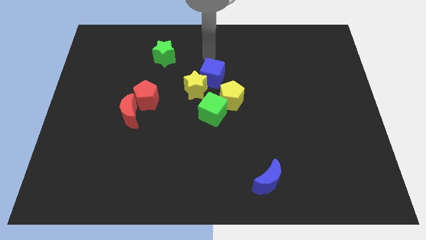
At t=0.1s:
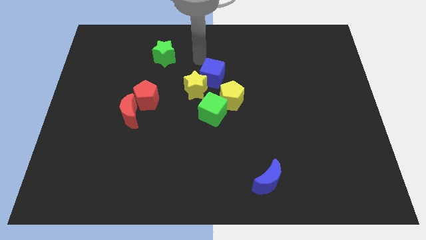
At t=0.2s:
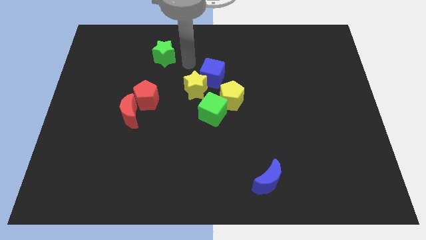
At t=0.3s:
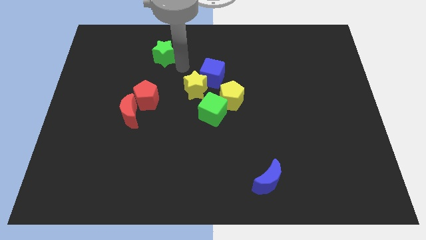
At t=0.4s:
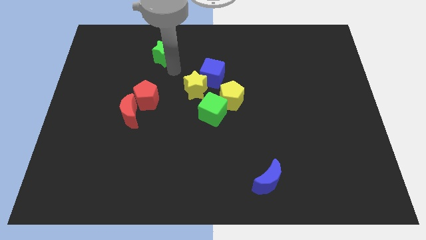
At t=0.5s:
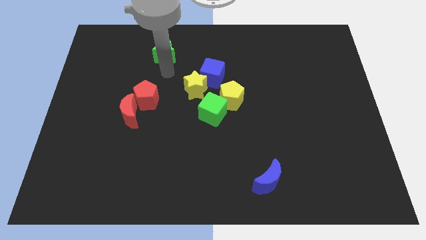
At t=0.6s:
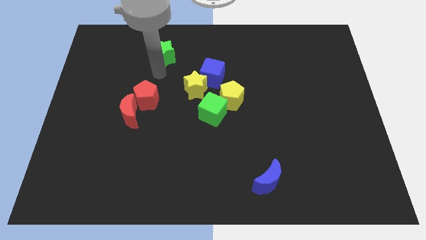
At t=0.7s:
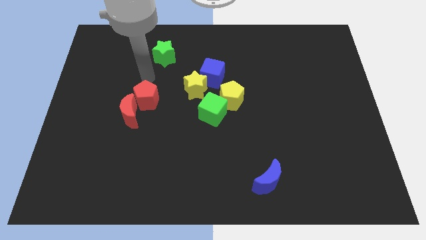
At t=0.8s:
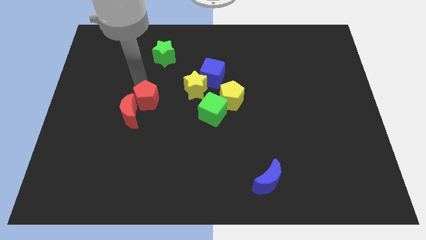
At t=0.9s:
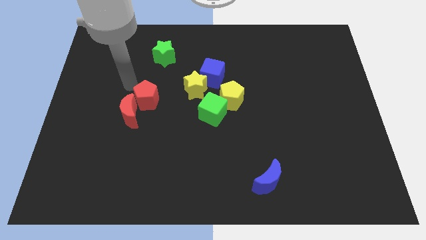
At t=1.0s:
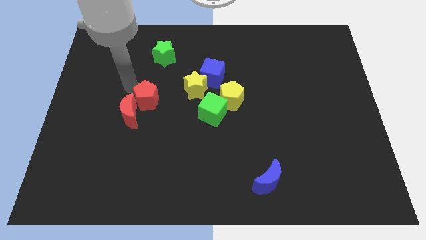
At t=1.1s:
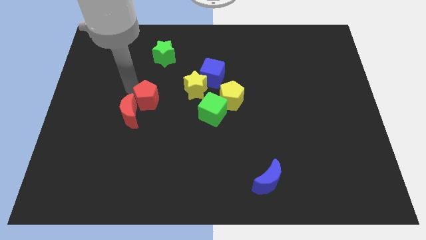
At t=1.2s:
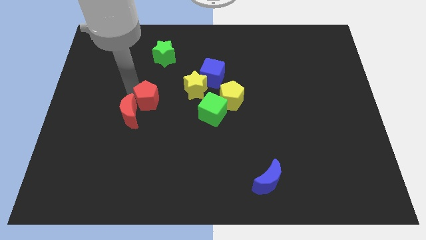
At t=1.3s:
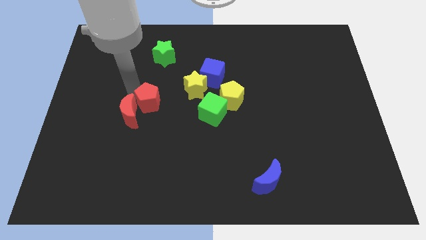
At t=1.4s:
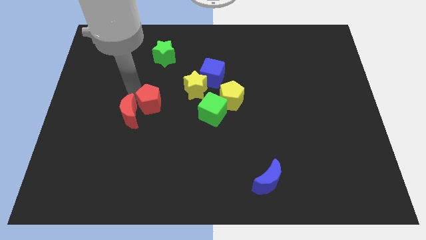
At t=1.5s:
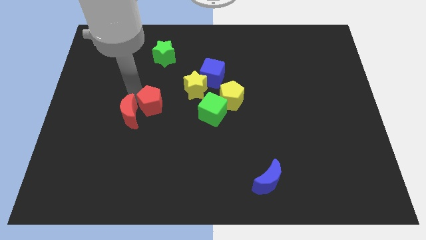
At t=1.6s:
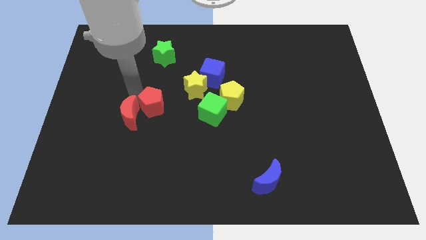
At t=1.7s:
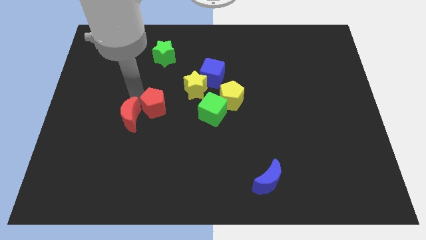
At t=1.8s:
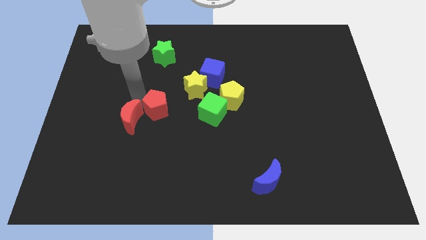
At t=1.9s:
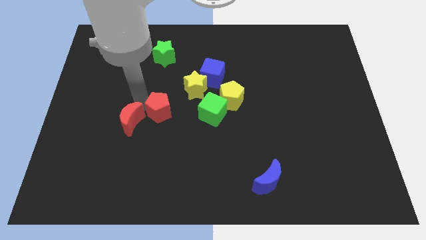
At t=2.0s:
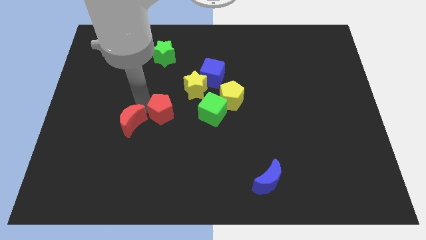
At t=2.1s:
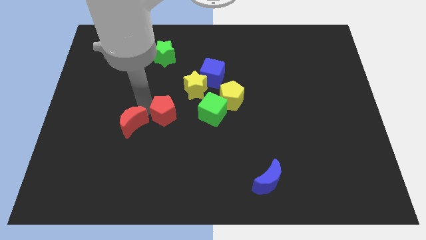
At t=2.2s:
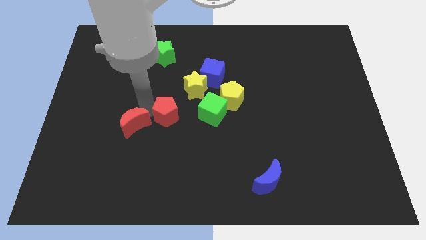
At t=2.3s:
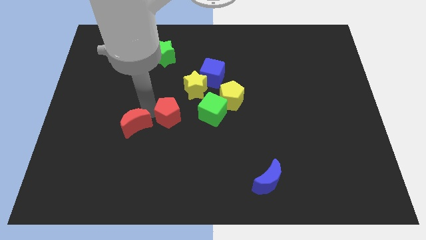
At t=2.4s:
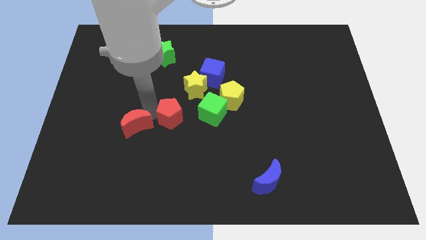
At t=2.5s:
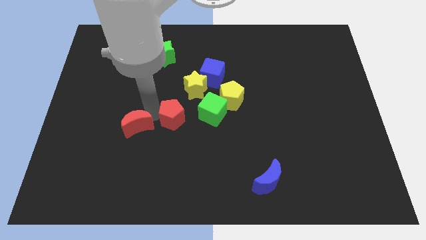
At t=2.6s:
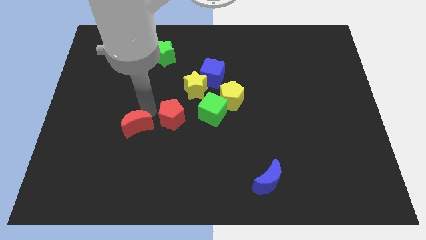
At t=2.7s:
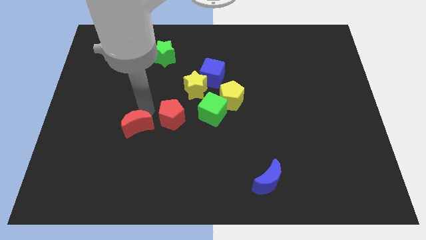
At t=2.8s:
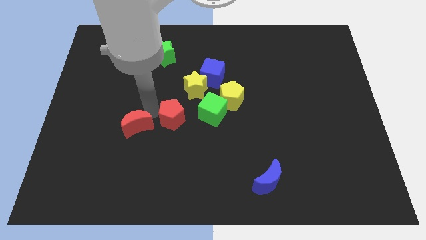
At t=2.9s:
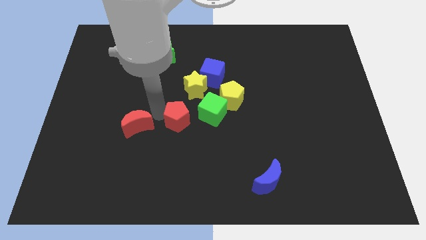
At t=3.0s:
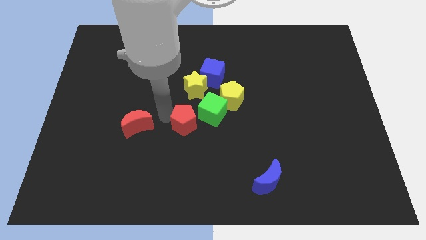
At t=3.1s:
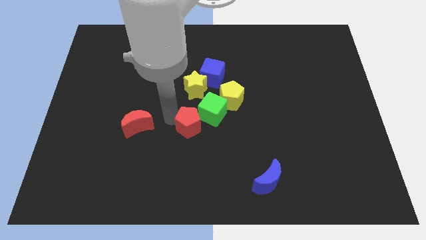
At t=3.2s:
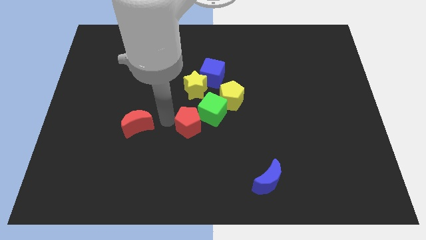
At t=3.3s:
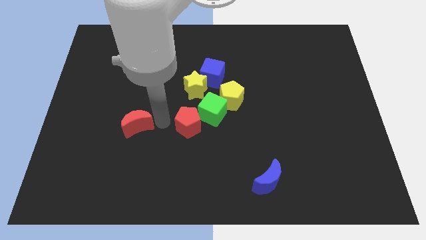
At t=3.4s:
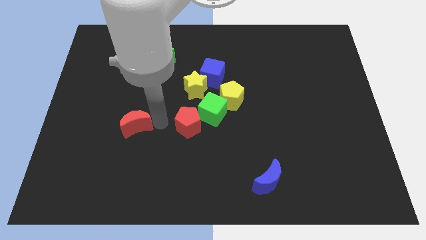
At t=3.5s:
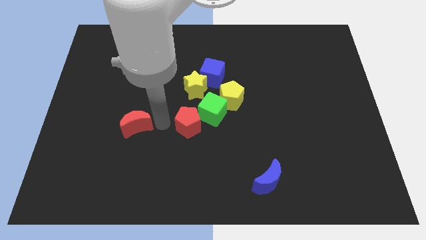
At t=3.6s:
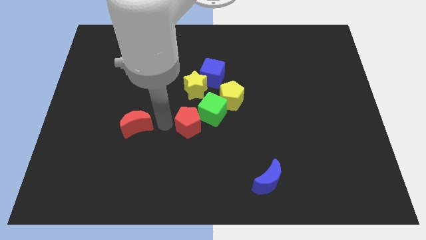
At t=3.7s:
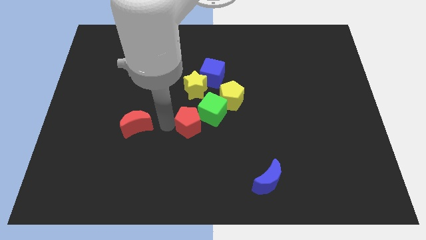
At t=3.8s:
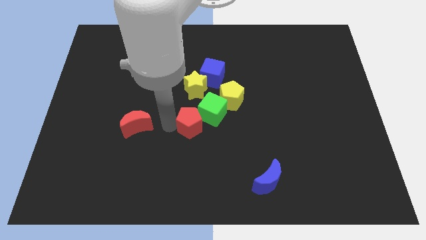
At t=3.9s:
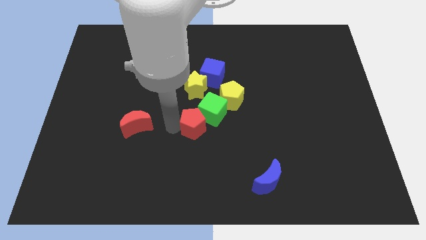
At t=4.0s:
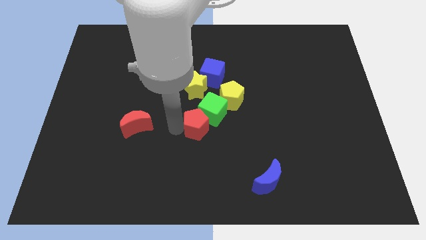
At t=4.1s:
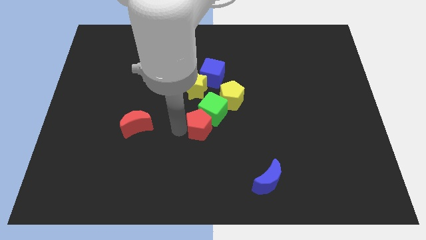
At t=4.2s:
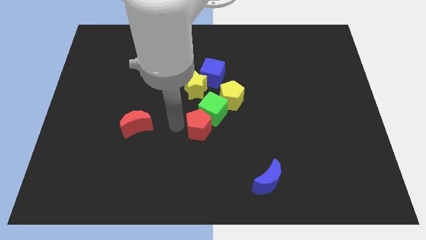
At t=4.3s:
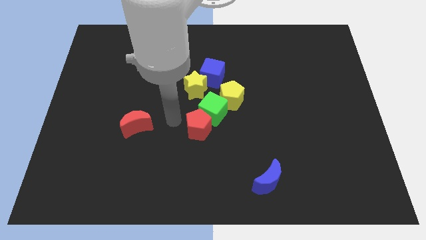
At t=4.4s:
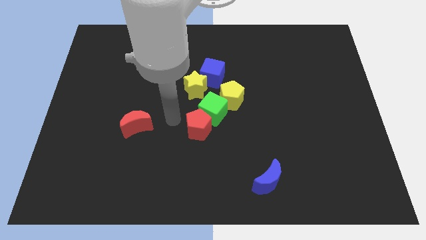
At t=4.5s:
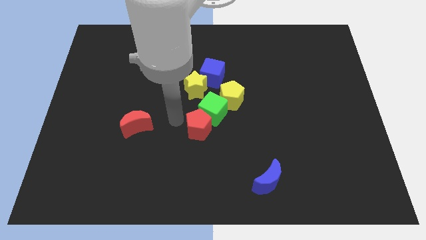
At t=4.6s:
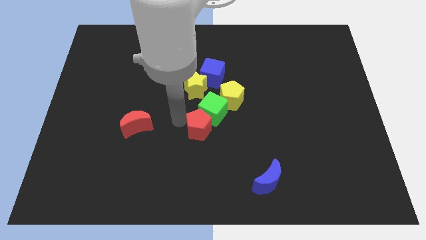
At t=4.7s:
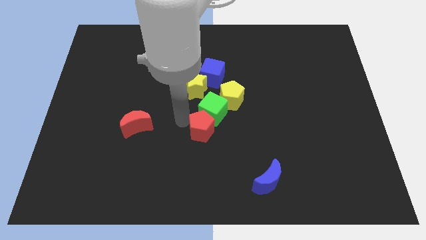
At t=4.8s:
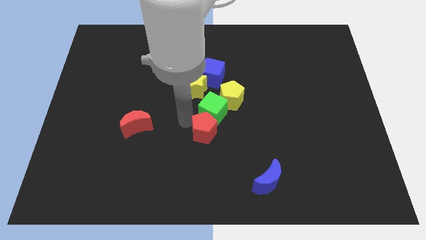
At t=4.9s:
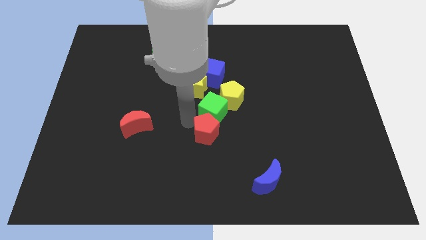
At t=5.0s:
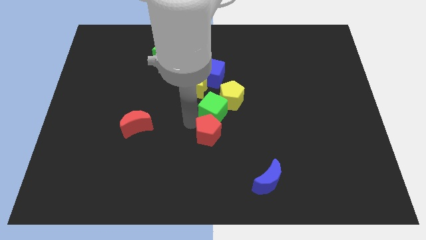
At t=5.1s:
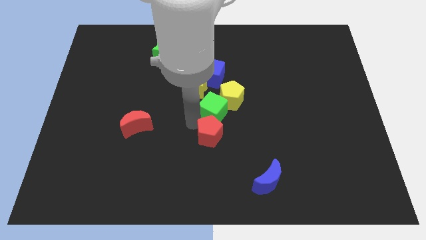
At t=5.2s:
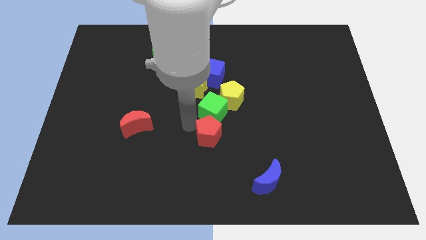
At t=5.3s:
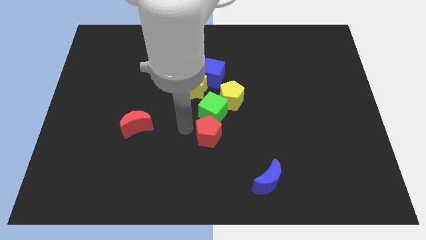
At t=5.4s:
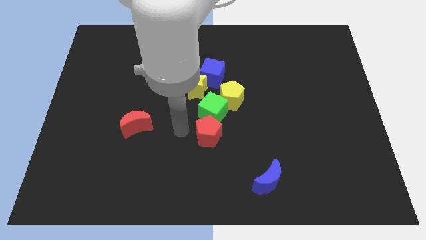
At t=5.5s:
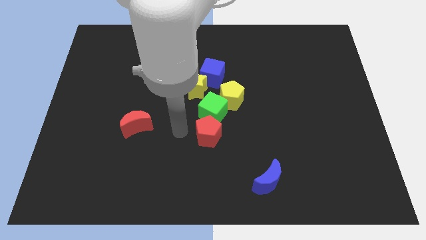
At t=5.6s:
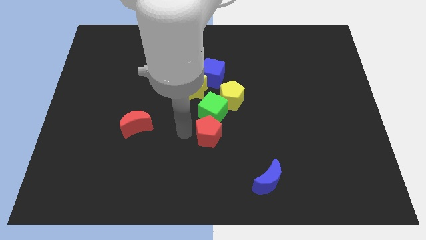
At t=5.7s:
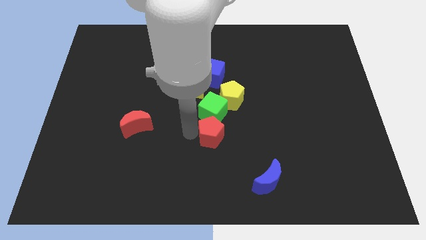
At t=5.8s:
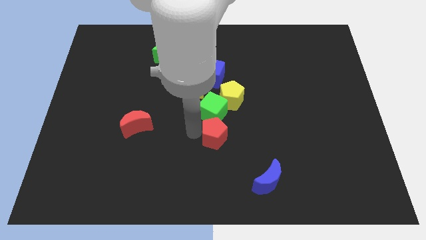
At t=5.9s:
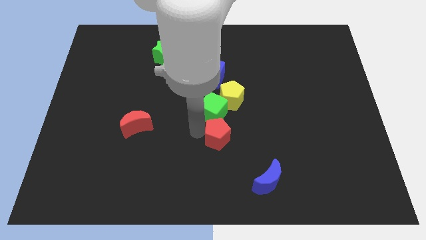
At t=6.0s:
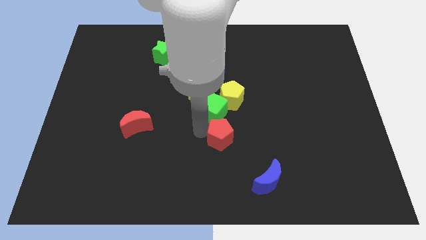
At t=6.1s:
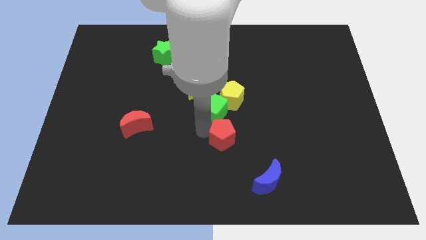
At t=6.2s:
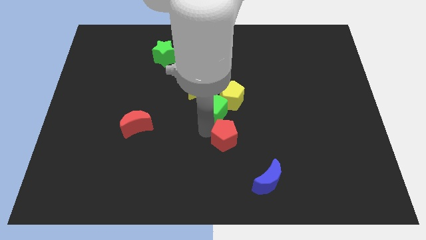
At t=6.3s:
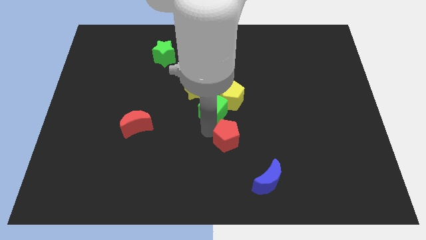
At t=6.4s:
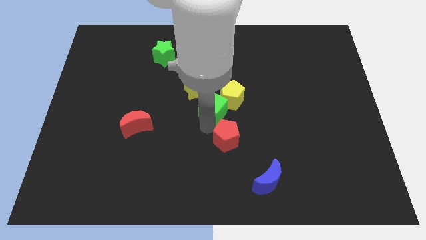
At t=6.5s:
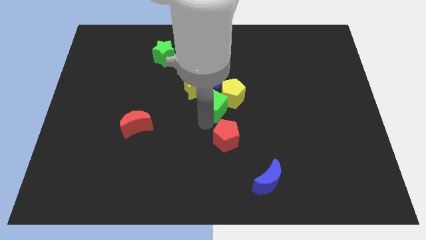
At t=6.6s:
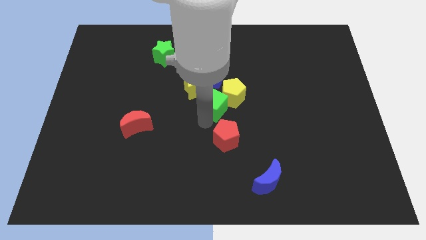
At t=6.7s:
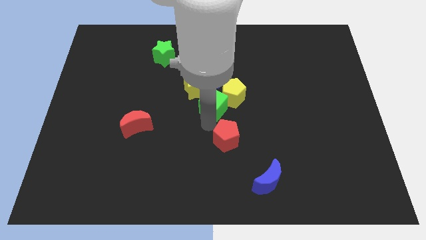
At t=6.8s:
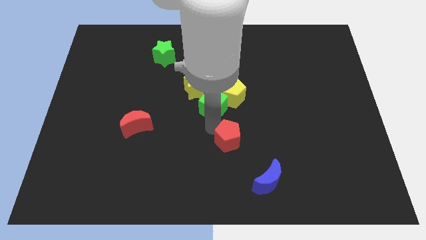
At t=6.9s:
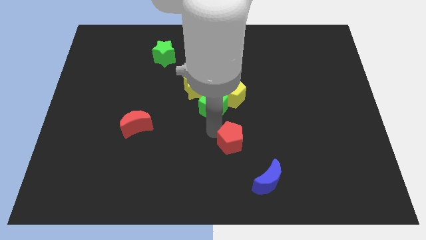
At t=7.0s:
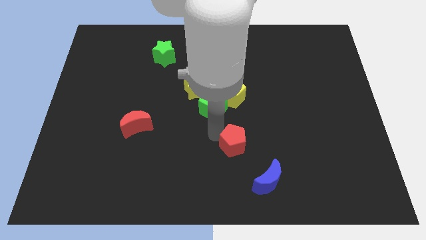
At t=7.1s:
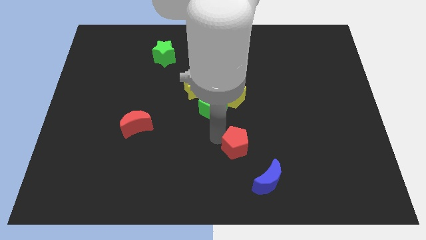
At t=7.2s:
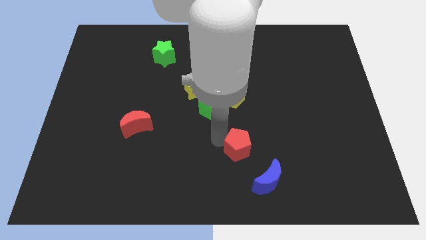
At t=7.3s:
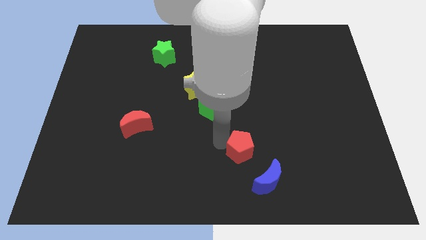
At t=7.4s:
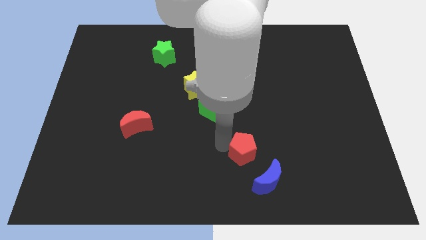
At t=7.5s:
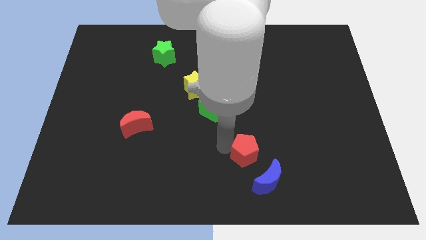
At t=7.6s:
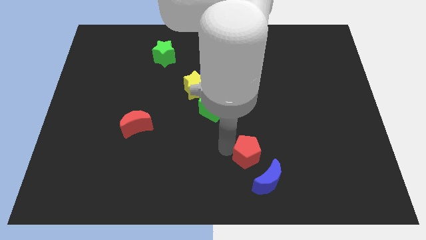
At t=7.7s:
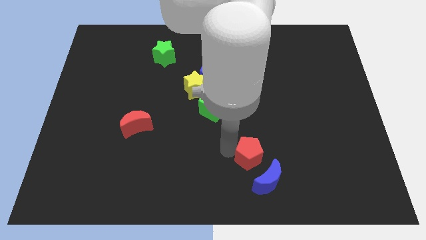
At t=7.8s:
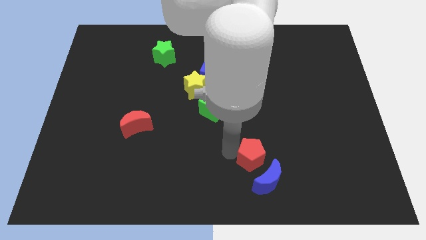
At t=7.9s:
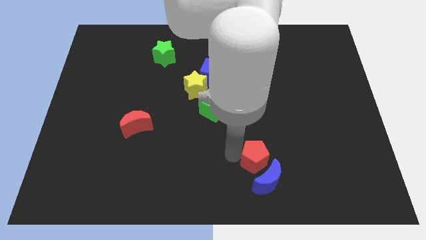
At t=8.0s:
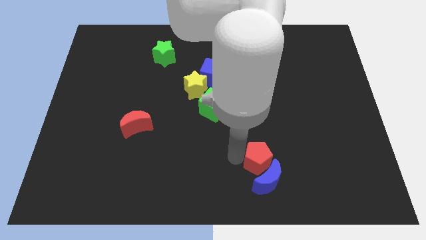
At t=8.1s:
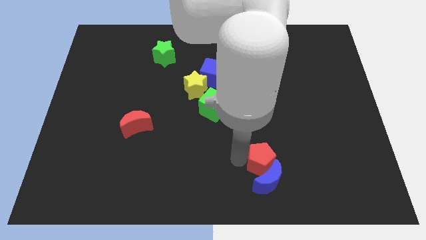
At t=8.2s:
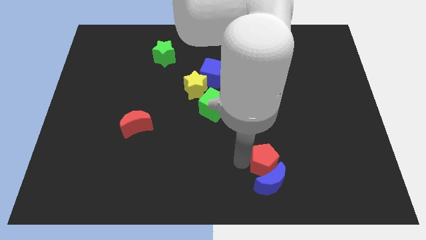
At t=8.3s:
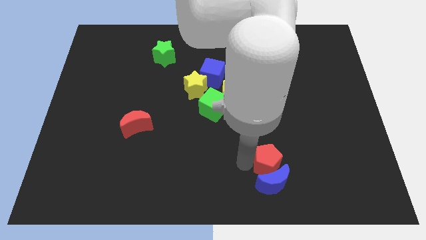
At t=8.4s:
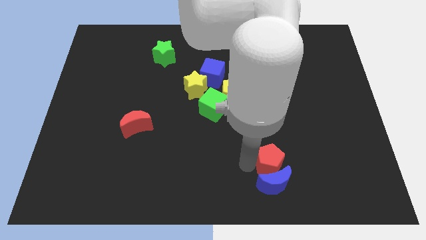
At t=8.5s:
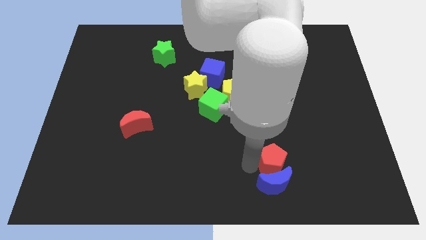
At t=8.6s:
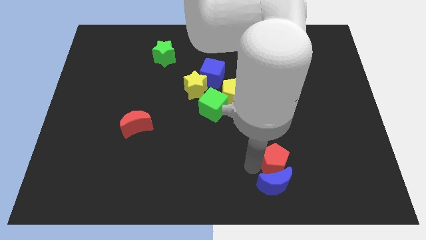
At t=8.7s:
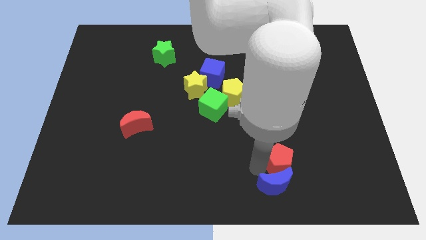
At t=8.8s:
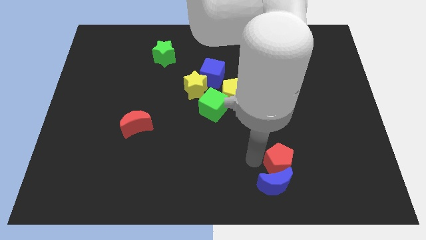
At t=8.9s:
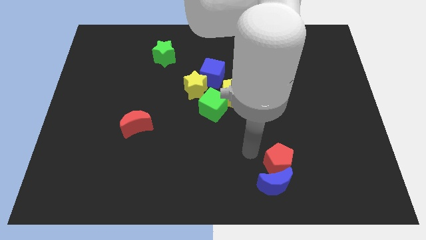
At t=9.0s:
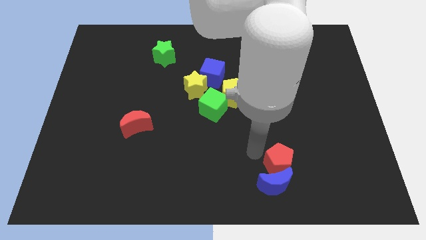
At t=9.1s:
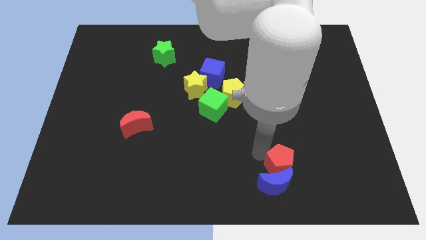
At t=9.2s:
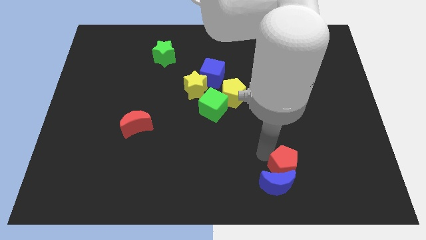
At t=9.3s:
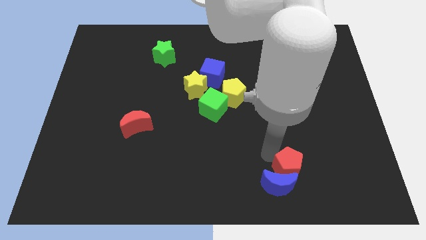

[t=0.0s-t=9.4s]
put the red pentagon right of the blue moon
